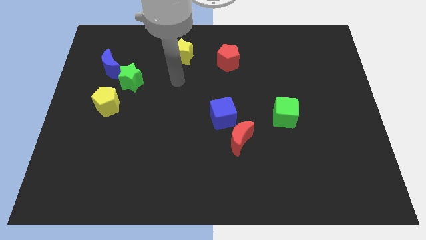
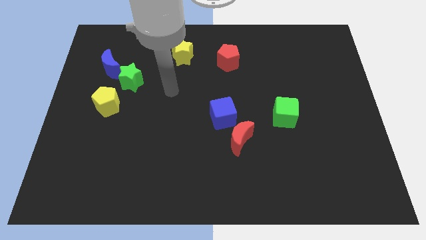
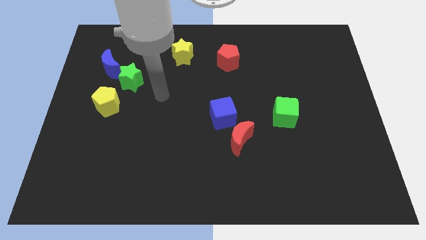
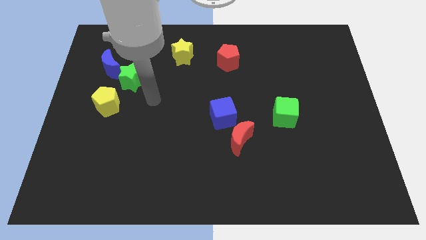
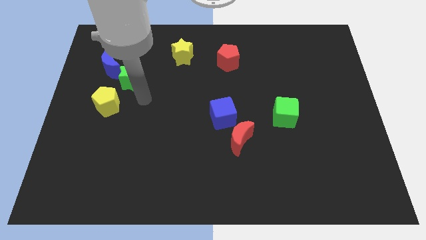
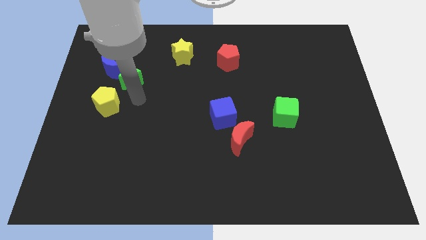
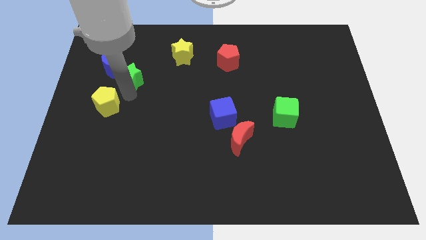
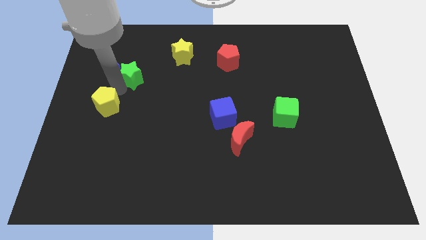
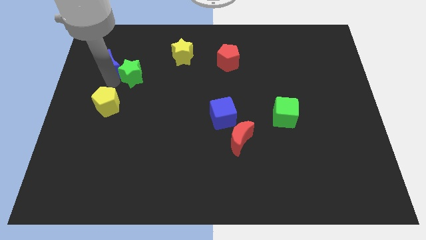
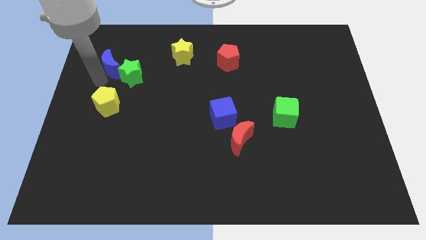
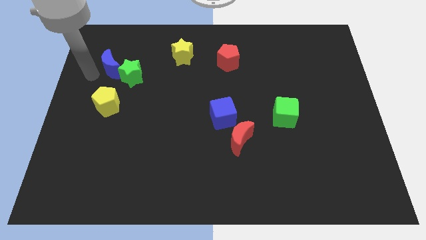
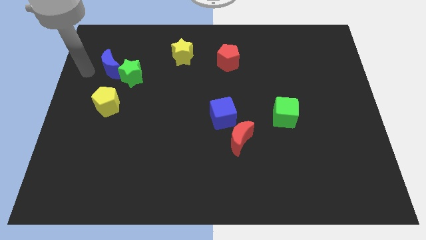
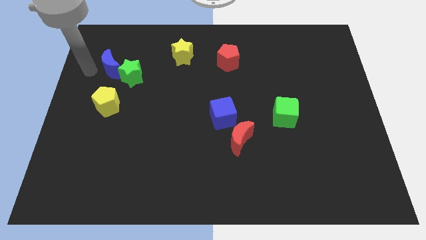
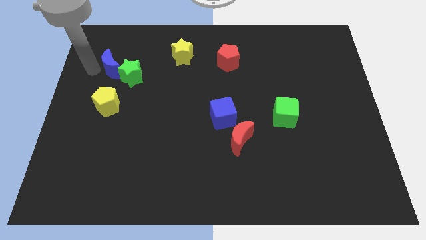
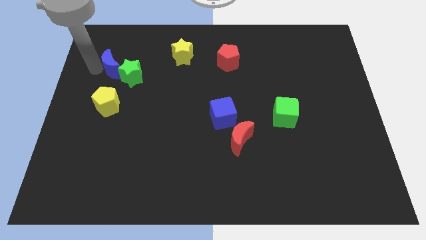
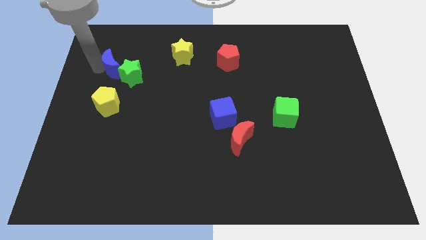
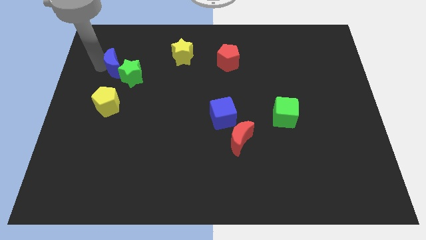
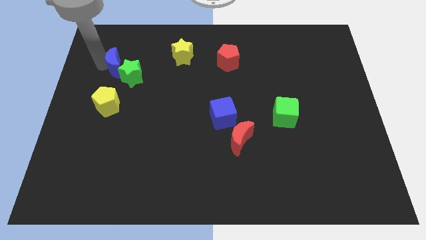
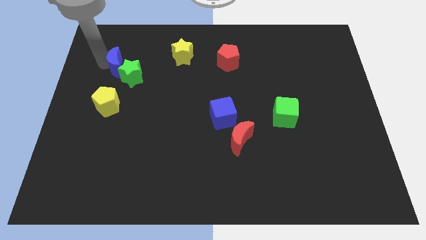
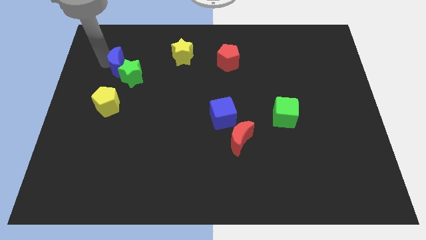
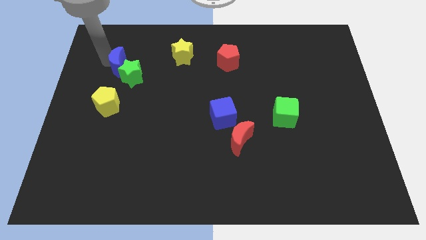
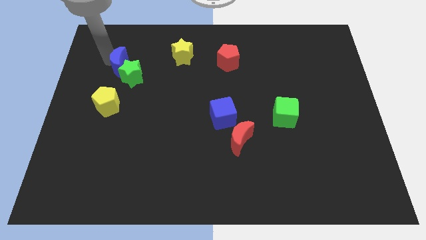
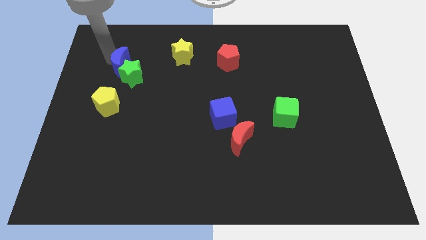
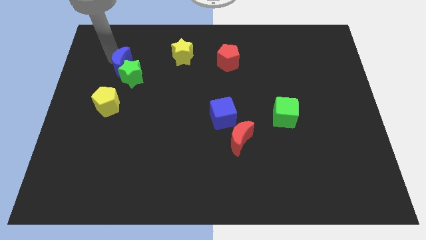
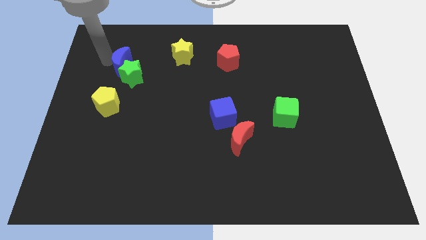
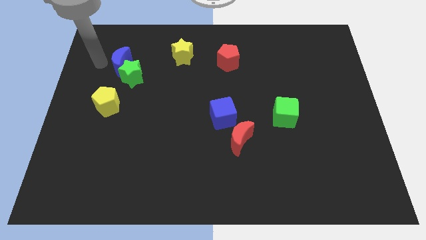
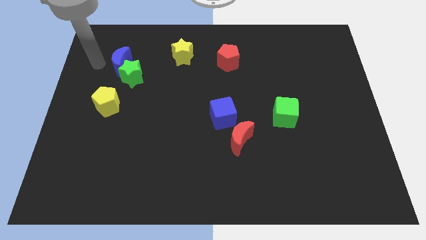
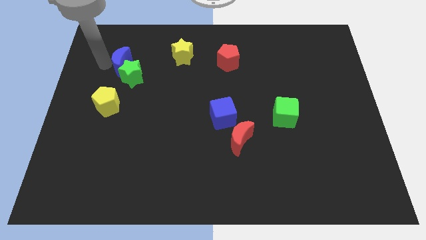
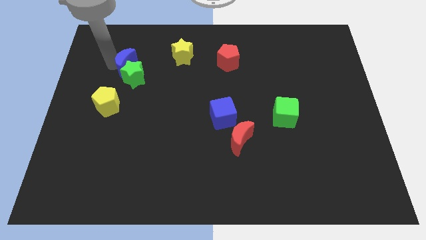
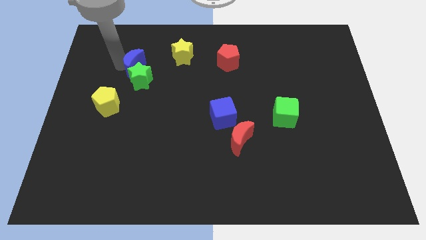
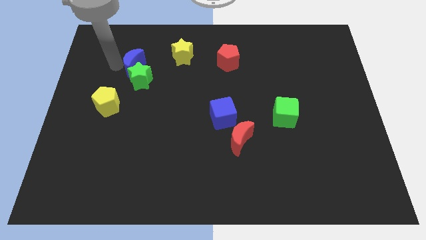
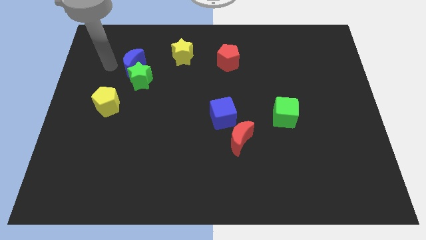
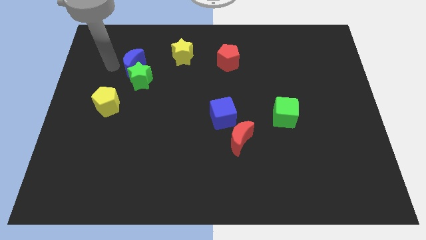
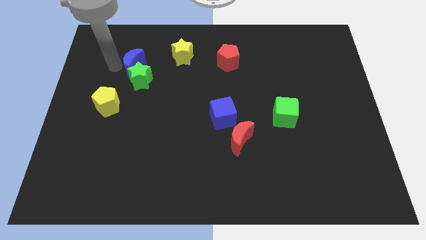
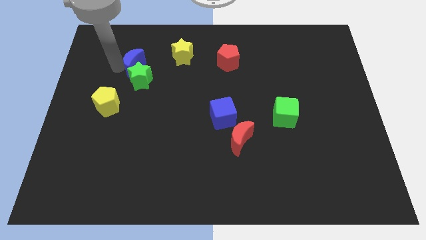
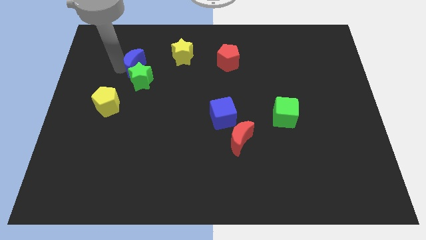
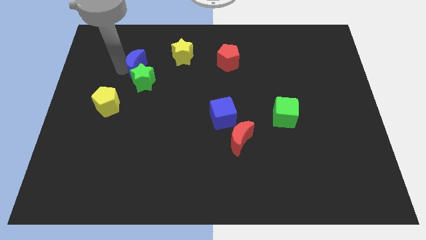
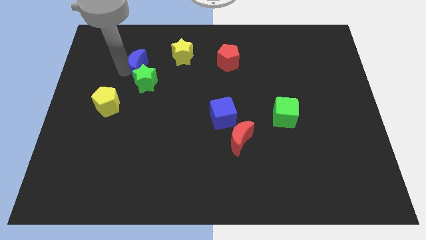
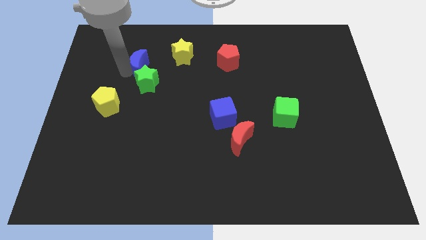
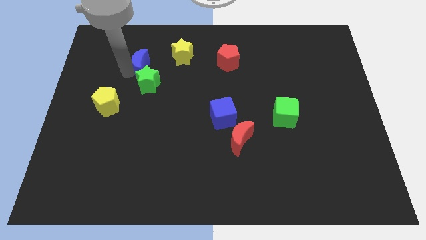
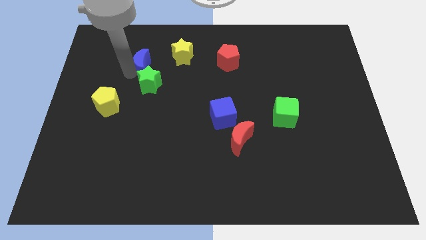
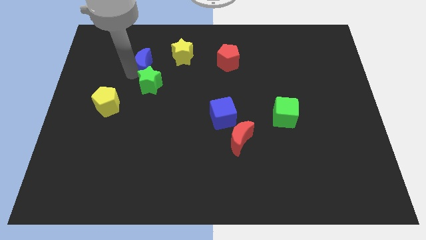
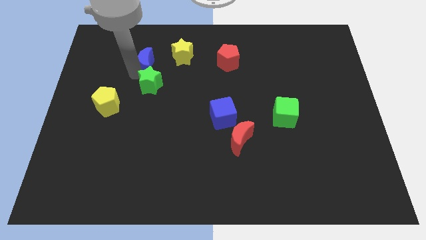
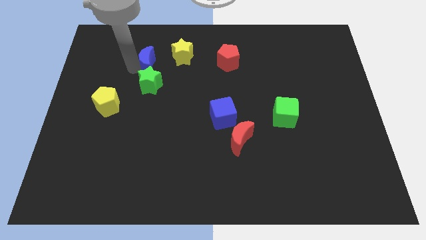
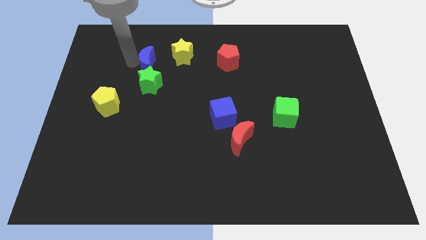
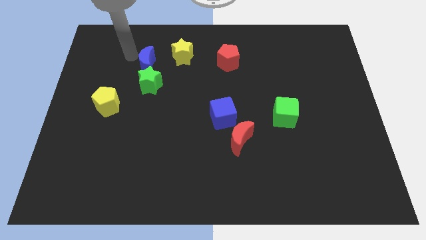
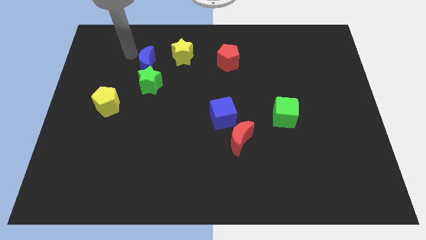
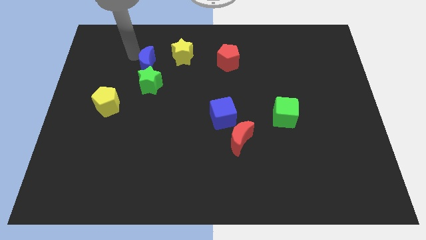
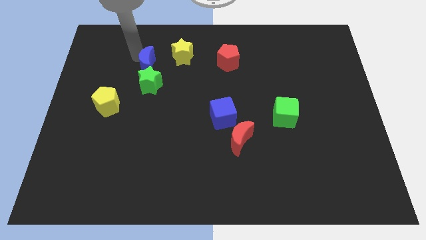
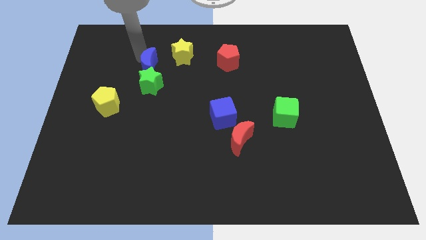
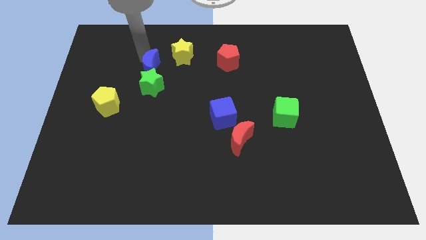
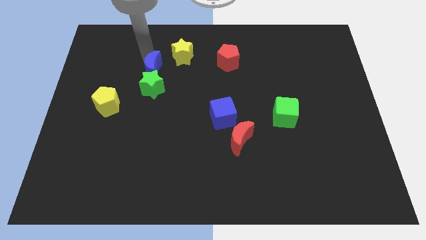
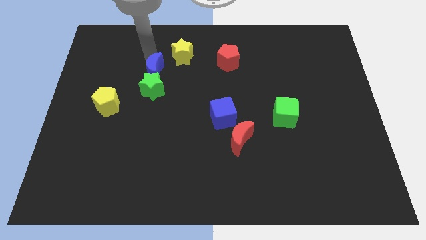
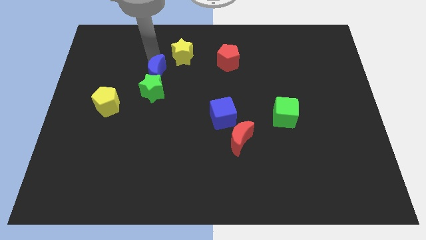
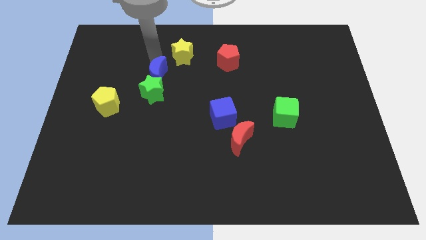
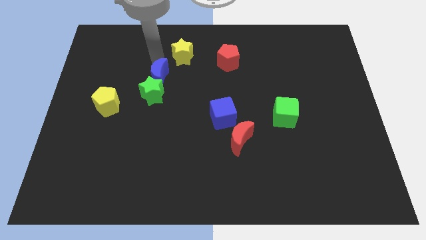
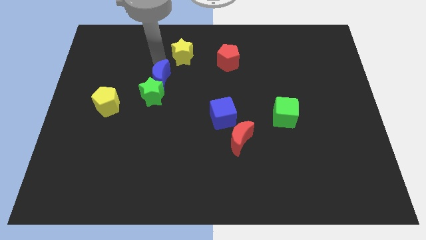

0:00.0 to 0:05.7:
slide the blue moon to the bottom of the yellow star
